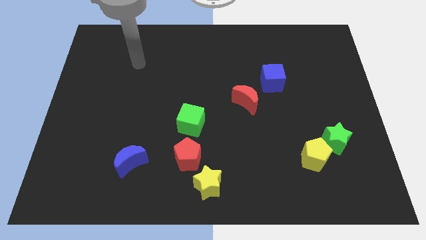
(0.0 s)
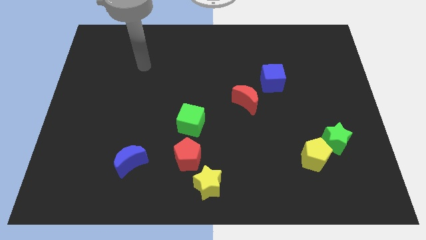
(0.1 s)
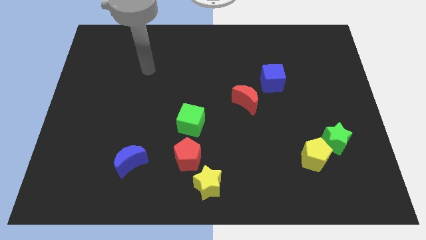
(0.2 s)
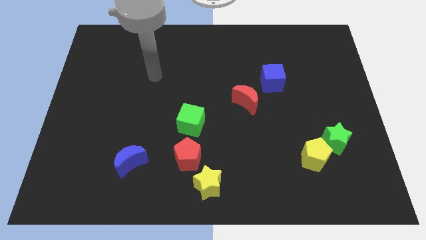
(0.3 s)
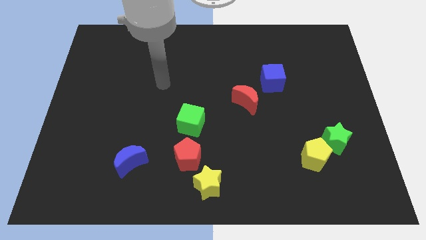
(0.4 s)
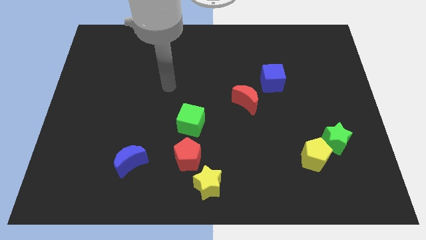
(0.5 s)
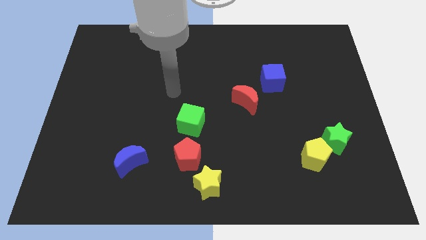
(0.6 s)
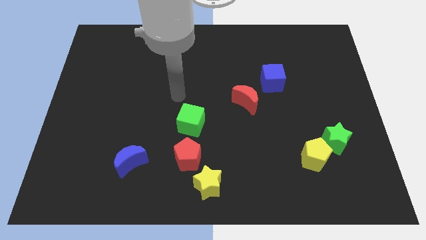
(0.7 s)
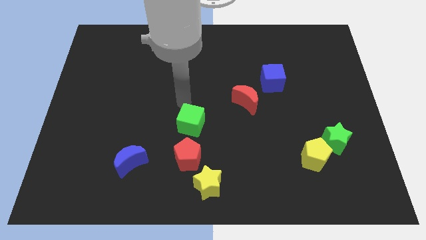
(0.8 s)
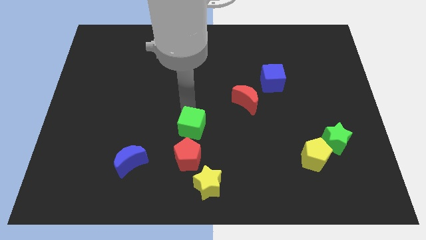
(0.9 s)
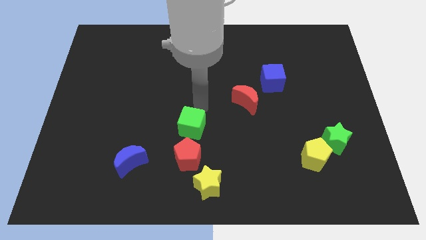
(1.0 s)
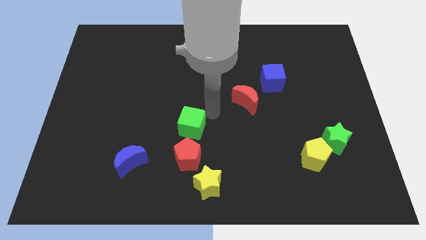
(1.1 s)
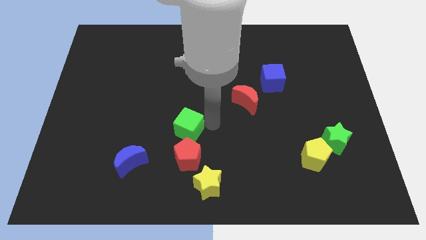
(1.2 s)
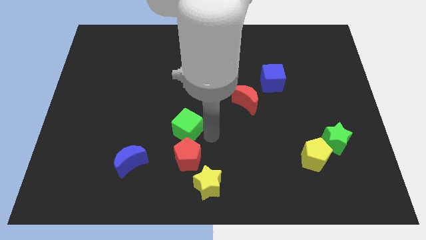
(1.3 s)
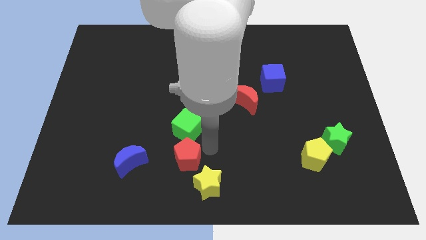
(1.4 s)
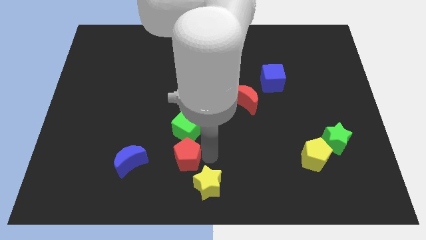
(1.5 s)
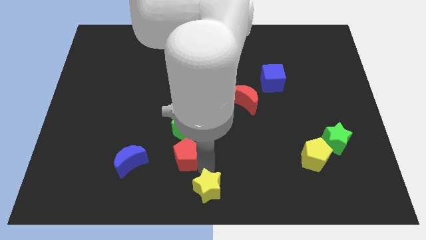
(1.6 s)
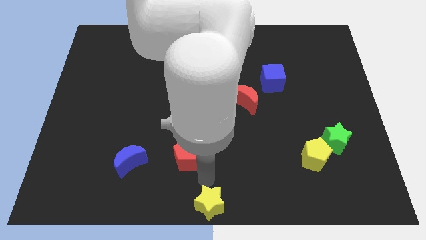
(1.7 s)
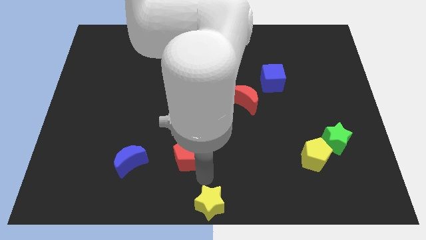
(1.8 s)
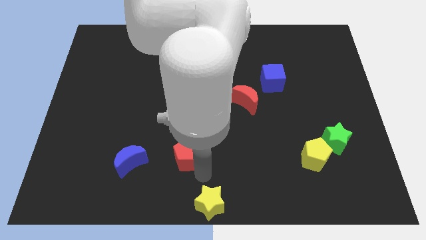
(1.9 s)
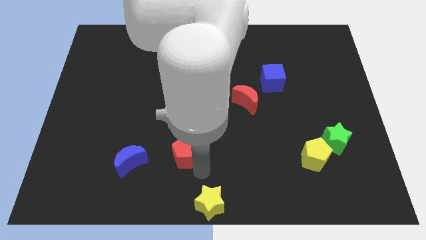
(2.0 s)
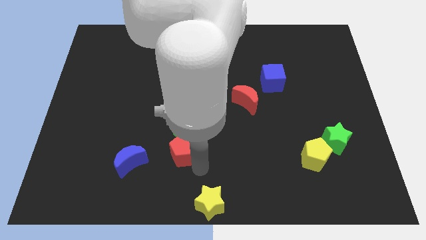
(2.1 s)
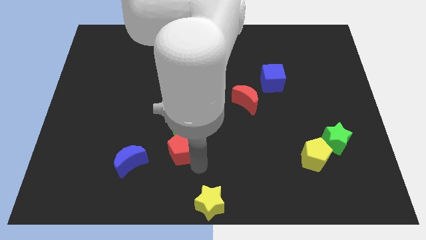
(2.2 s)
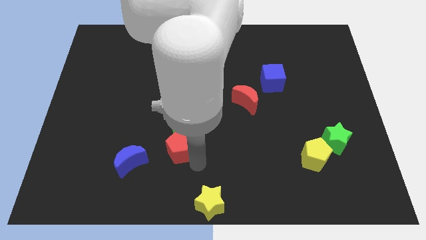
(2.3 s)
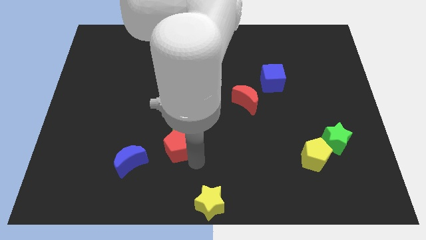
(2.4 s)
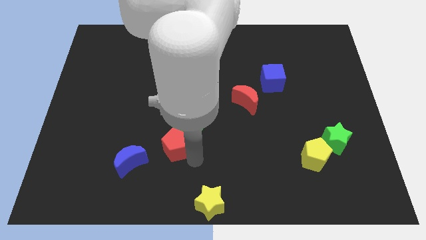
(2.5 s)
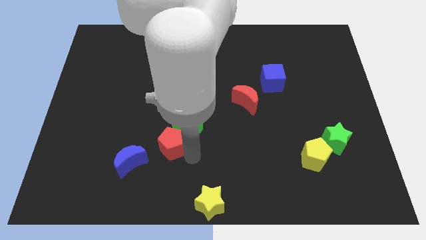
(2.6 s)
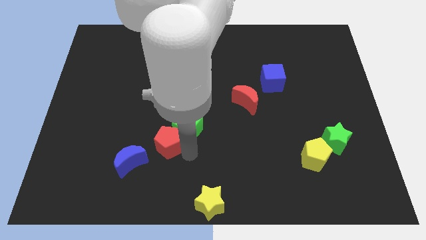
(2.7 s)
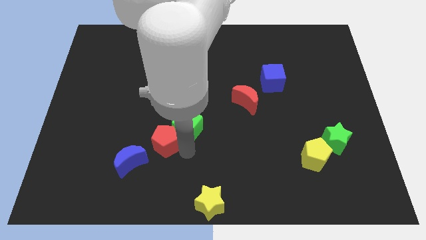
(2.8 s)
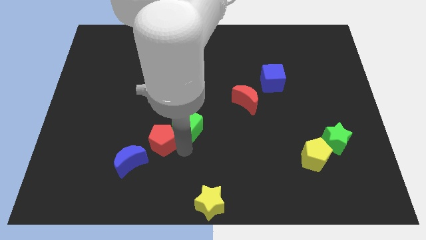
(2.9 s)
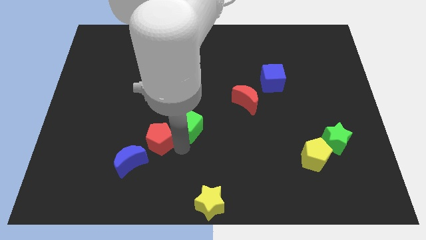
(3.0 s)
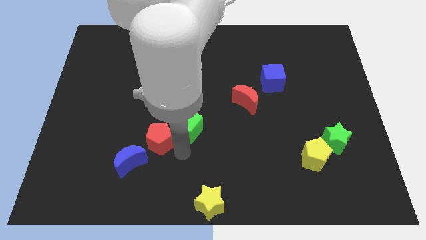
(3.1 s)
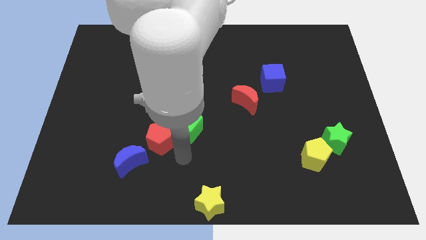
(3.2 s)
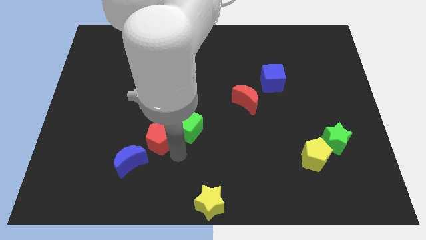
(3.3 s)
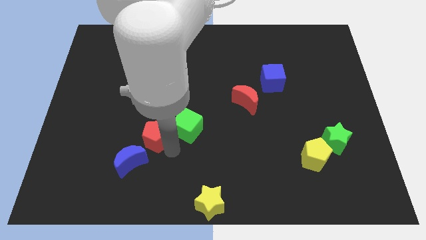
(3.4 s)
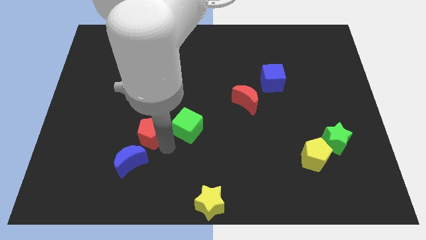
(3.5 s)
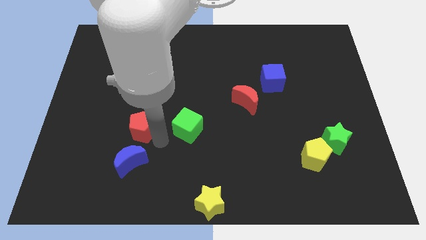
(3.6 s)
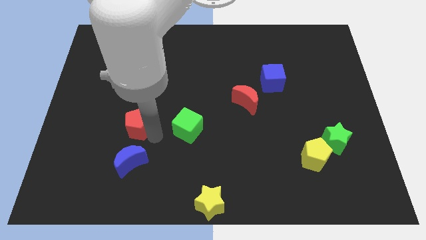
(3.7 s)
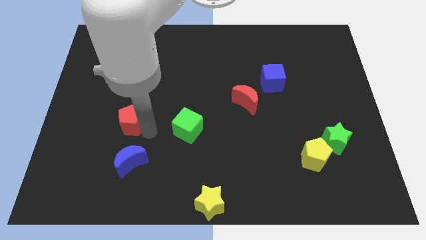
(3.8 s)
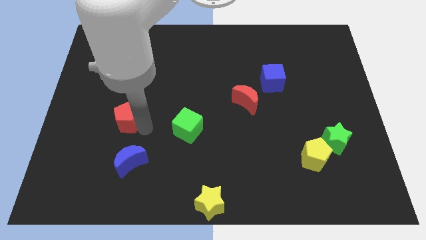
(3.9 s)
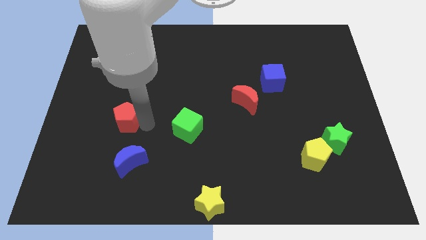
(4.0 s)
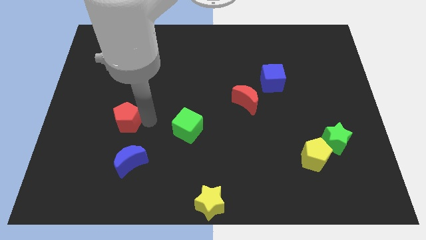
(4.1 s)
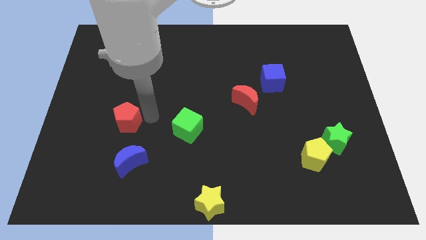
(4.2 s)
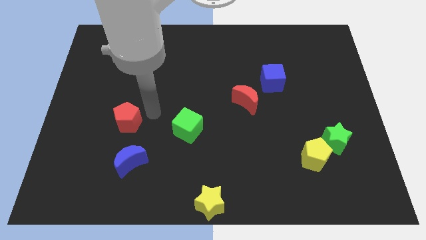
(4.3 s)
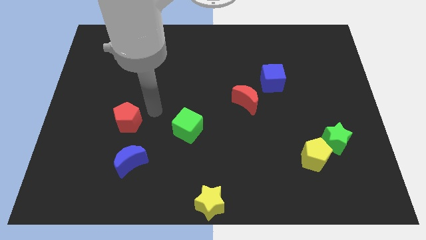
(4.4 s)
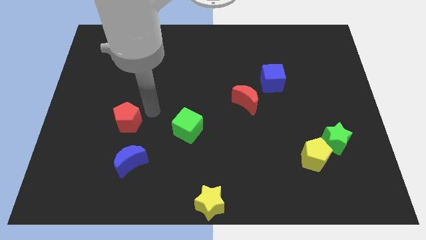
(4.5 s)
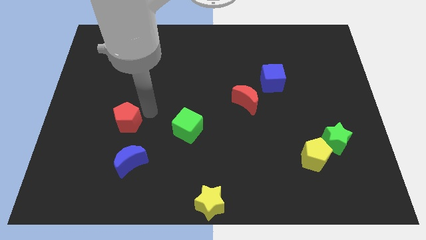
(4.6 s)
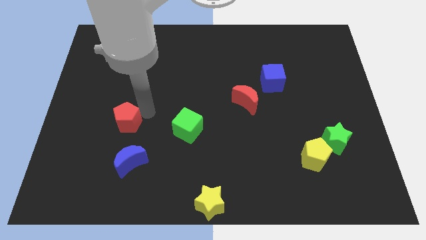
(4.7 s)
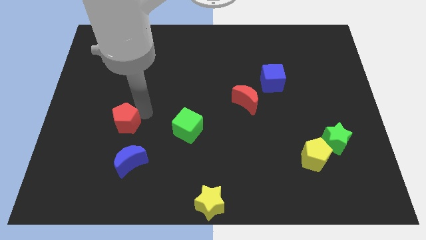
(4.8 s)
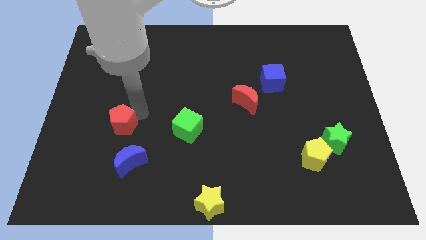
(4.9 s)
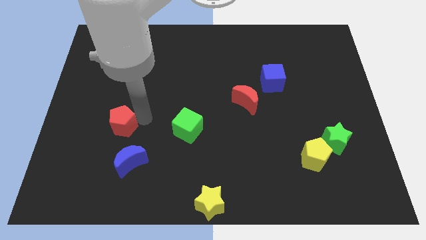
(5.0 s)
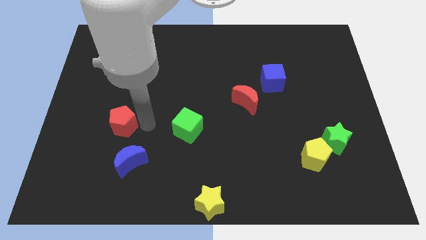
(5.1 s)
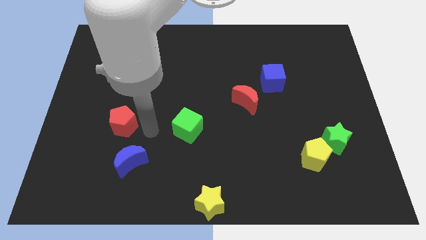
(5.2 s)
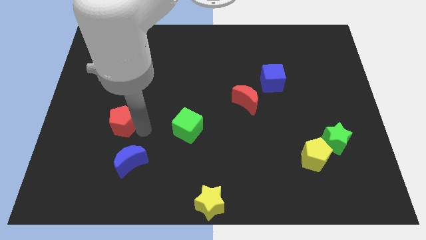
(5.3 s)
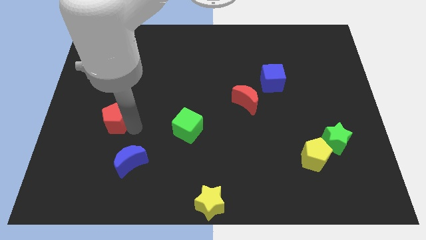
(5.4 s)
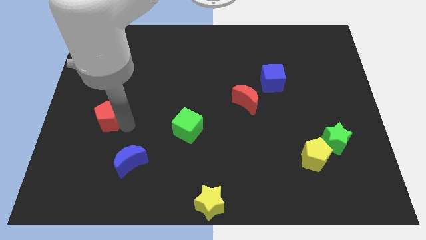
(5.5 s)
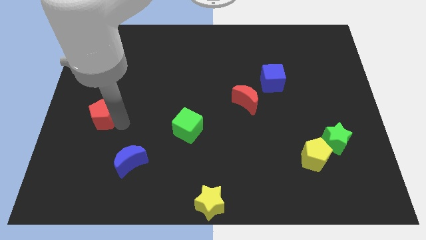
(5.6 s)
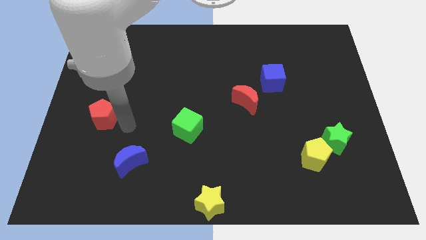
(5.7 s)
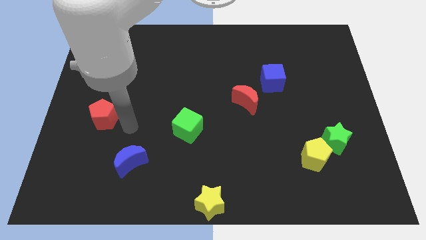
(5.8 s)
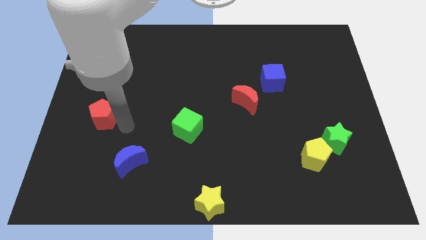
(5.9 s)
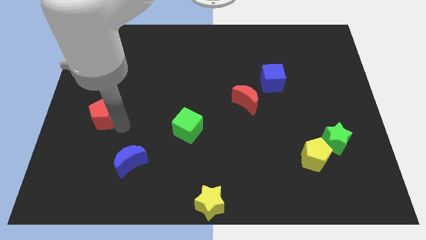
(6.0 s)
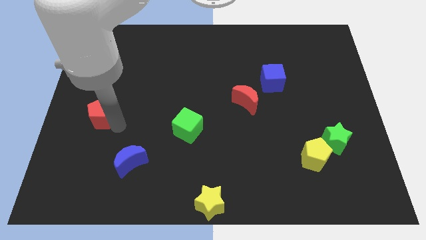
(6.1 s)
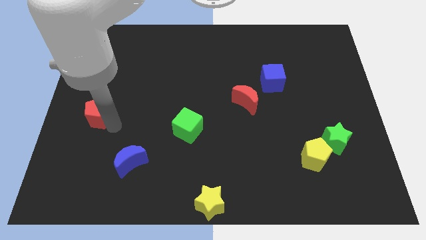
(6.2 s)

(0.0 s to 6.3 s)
put the red pentagon to the left side
